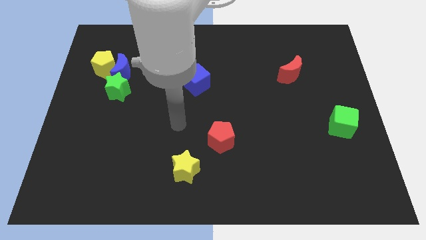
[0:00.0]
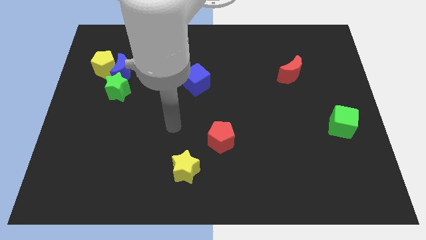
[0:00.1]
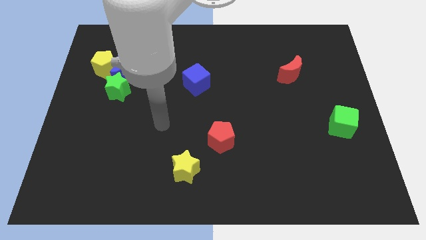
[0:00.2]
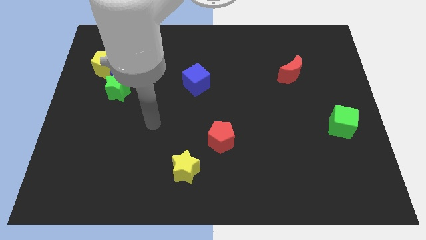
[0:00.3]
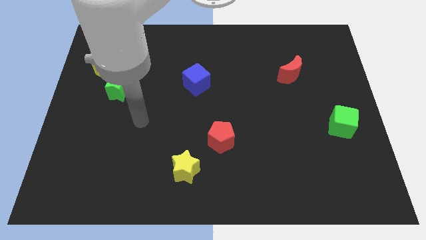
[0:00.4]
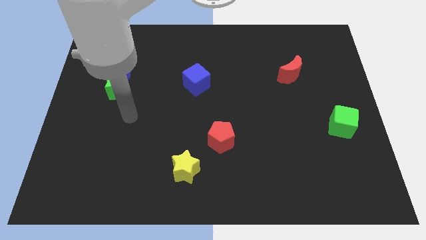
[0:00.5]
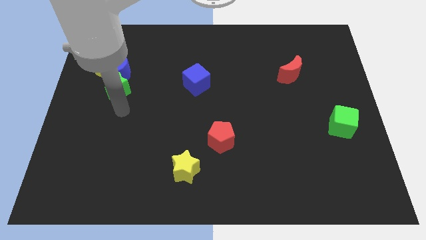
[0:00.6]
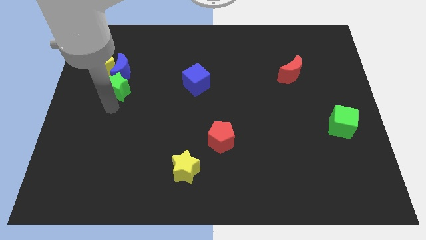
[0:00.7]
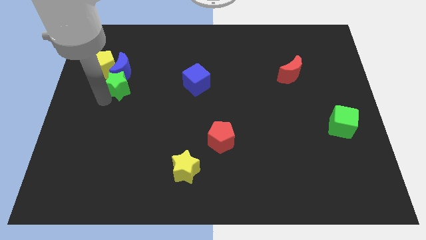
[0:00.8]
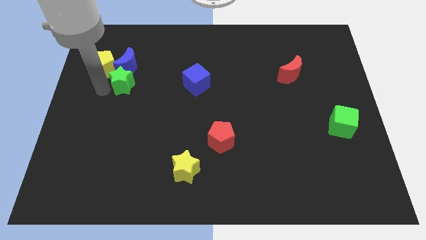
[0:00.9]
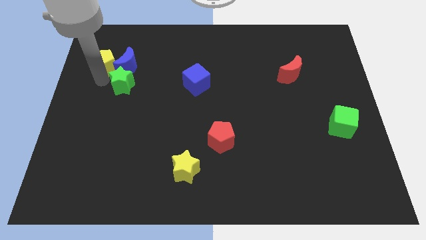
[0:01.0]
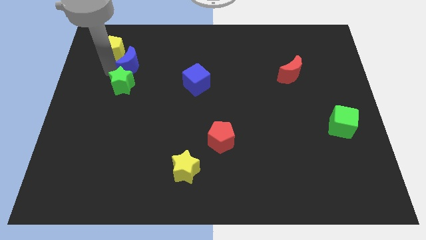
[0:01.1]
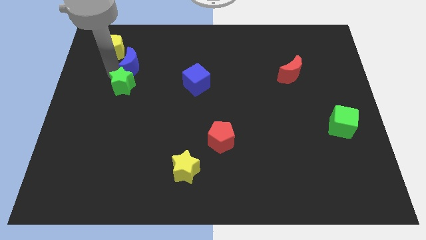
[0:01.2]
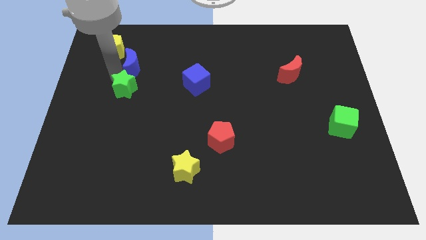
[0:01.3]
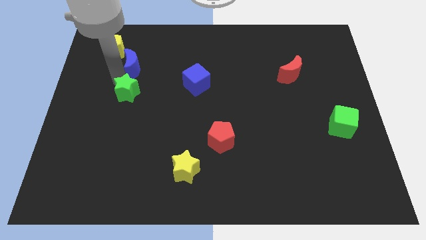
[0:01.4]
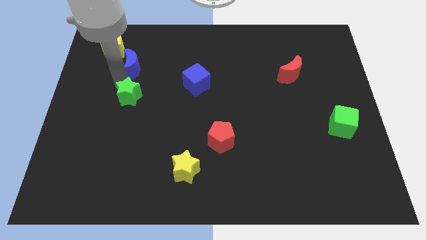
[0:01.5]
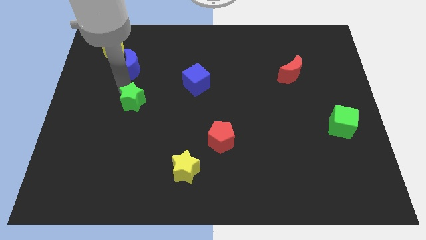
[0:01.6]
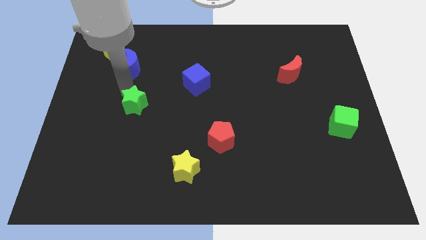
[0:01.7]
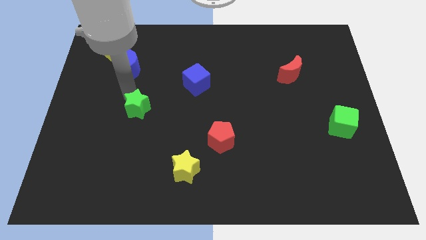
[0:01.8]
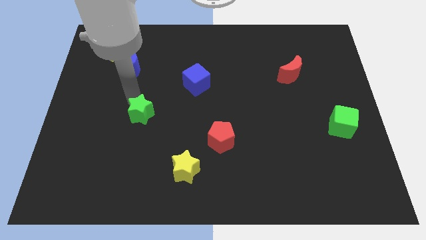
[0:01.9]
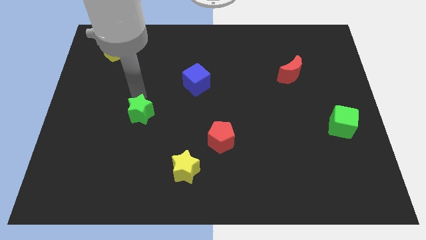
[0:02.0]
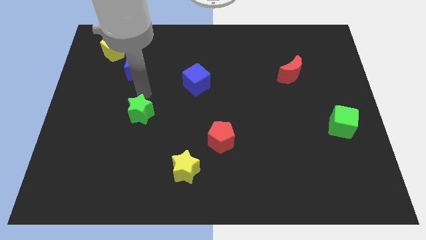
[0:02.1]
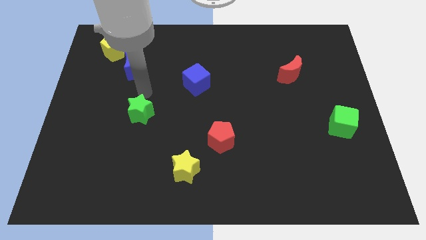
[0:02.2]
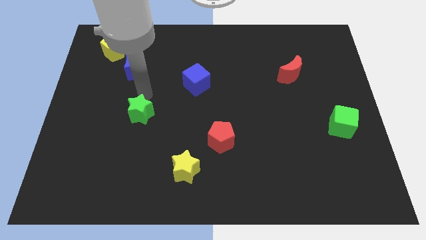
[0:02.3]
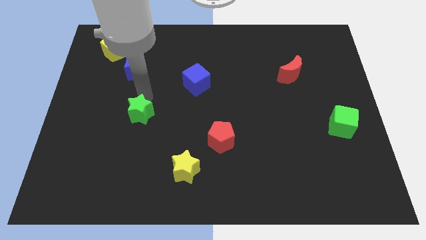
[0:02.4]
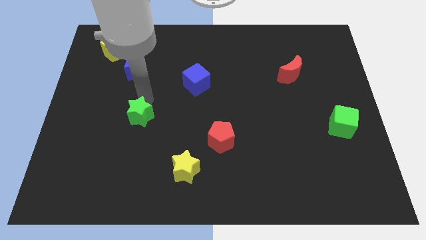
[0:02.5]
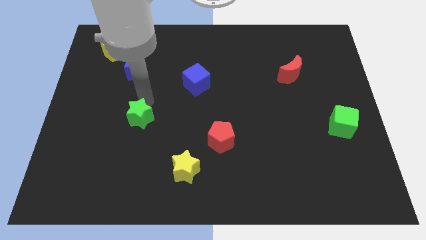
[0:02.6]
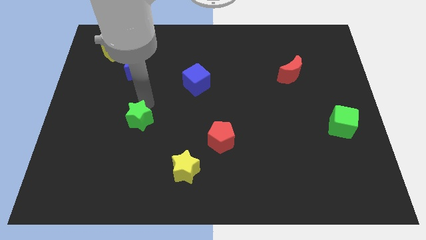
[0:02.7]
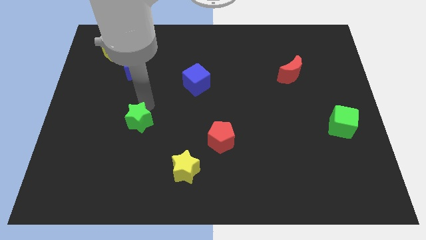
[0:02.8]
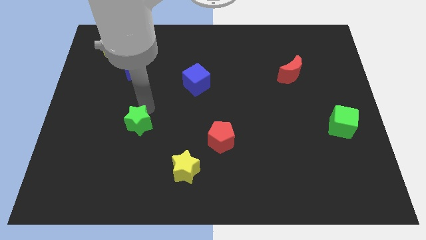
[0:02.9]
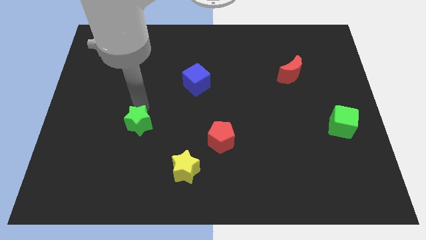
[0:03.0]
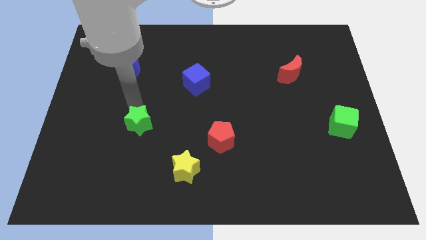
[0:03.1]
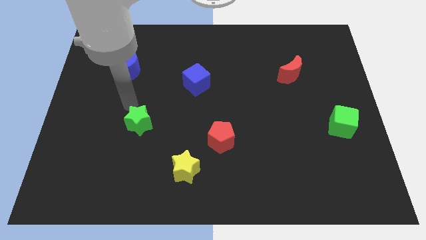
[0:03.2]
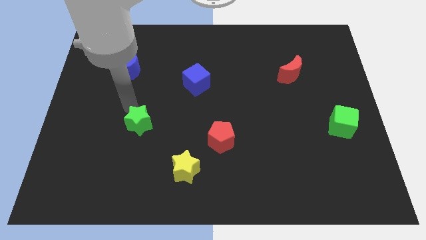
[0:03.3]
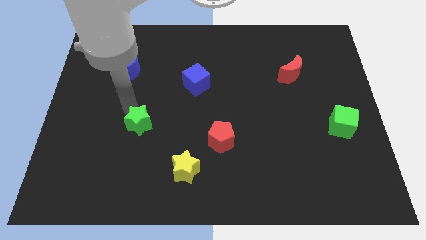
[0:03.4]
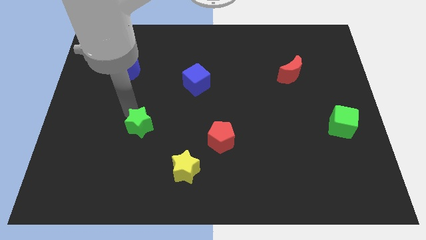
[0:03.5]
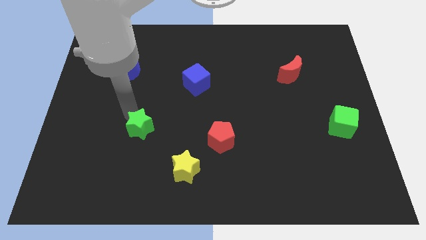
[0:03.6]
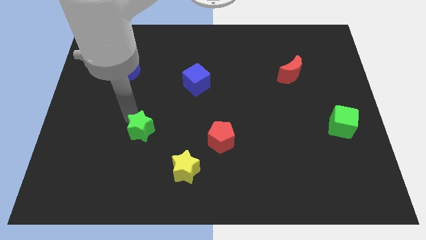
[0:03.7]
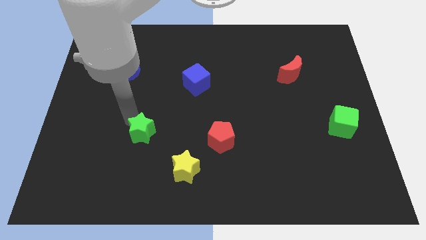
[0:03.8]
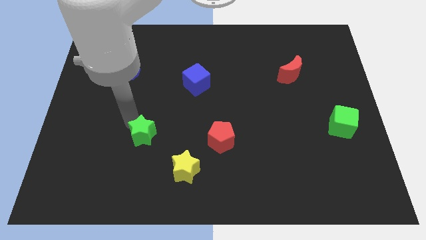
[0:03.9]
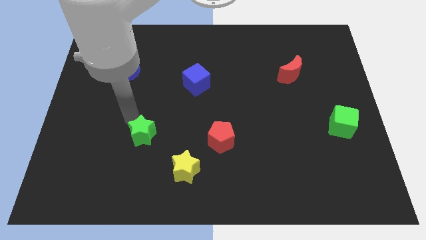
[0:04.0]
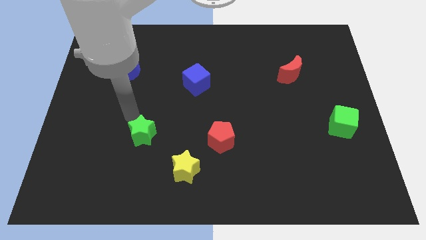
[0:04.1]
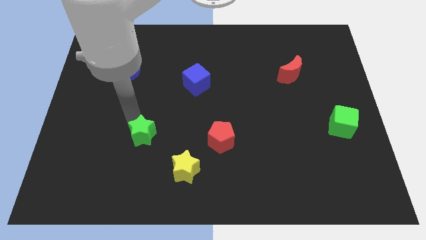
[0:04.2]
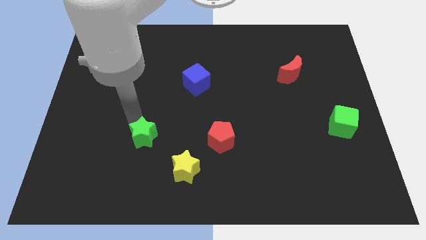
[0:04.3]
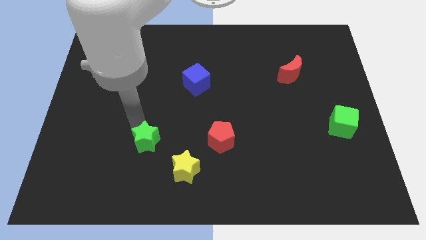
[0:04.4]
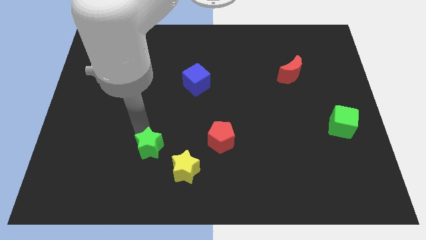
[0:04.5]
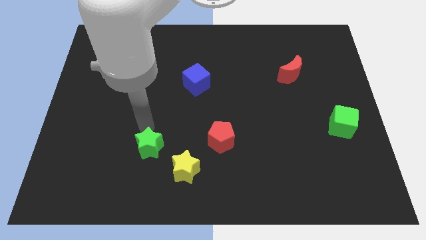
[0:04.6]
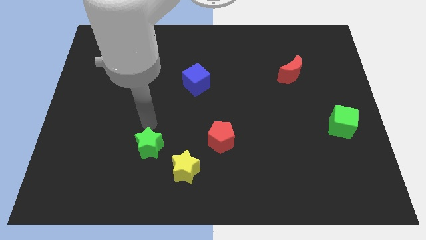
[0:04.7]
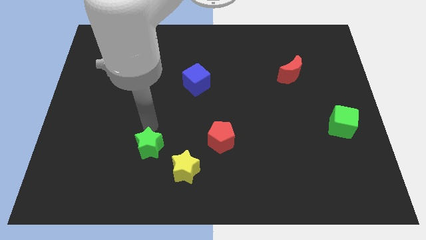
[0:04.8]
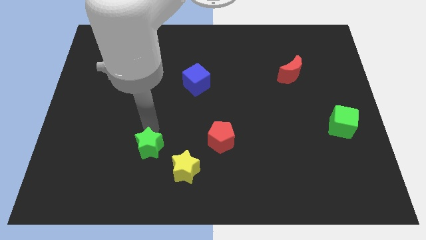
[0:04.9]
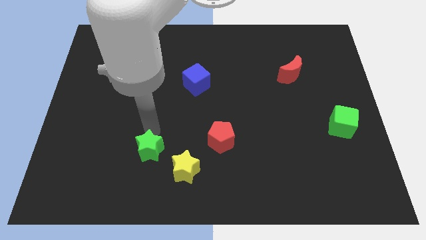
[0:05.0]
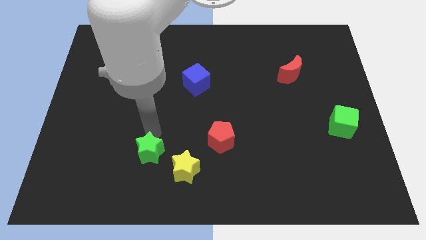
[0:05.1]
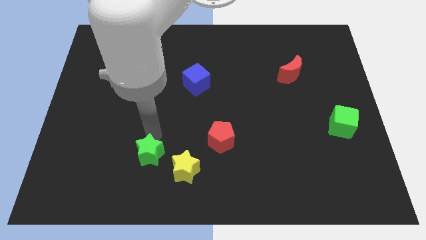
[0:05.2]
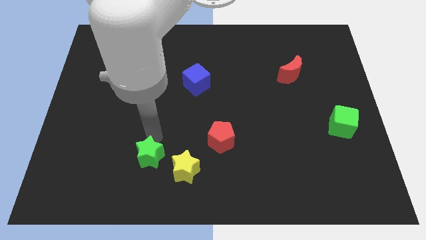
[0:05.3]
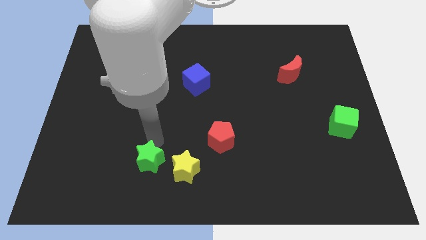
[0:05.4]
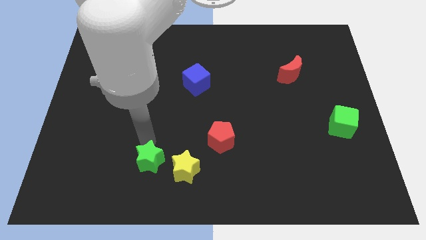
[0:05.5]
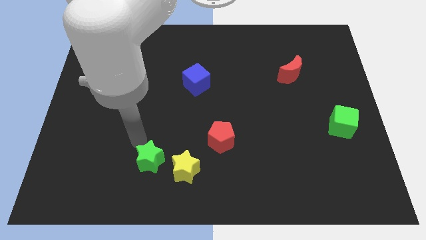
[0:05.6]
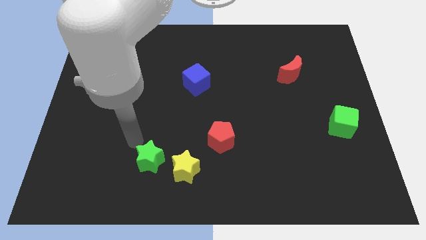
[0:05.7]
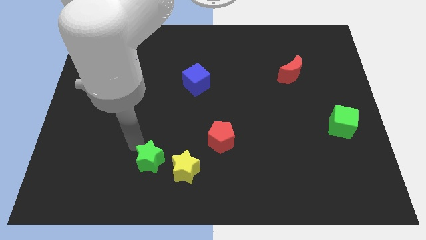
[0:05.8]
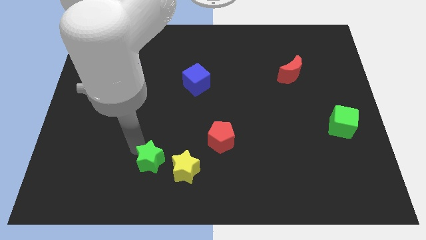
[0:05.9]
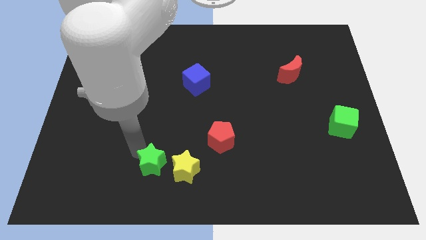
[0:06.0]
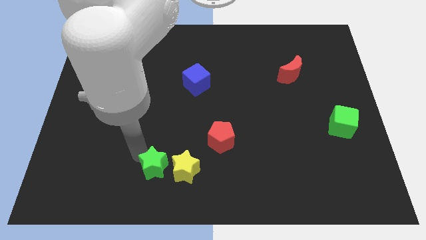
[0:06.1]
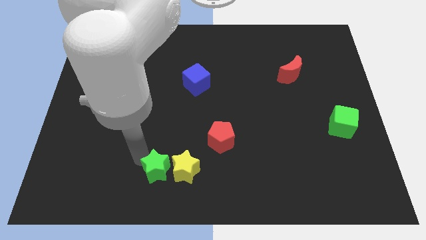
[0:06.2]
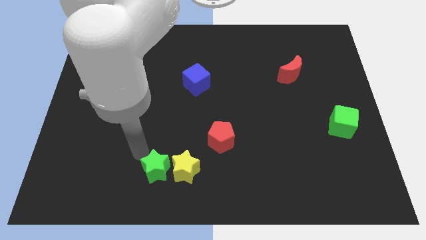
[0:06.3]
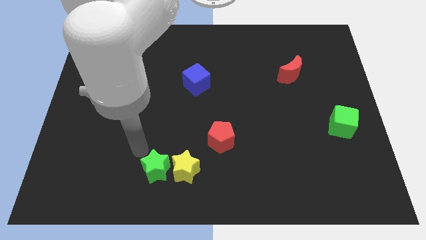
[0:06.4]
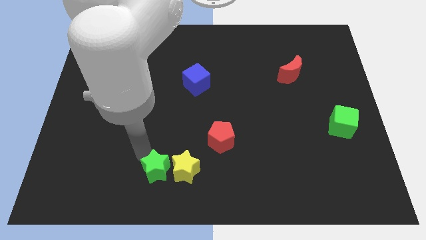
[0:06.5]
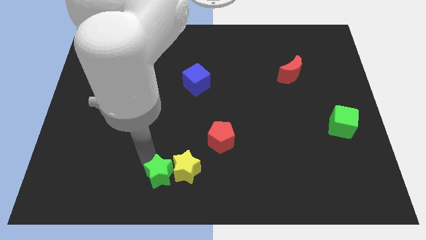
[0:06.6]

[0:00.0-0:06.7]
push the green star to the bottom
